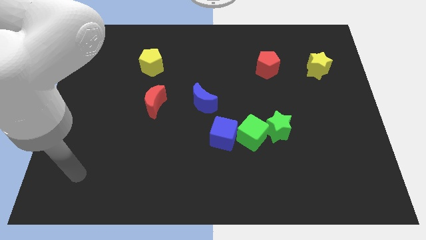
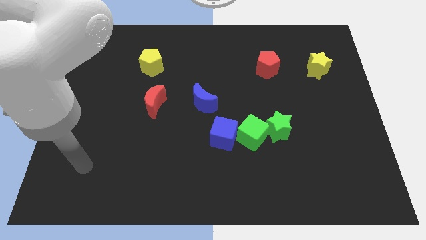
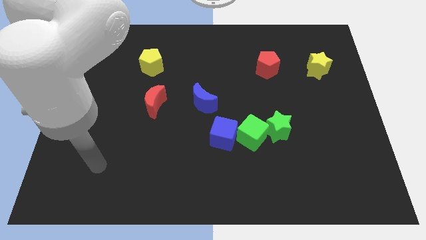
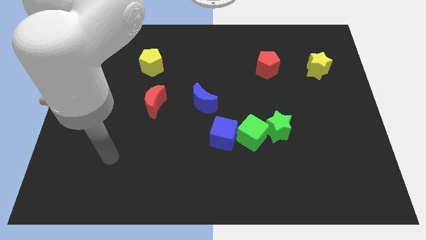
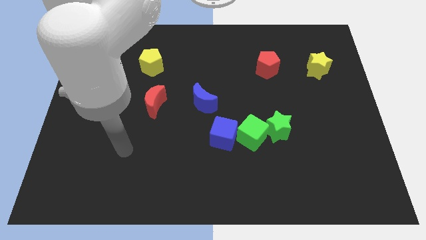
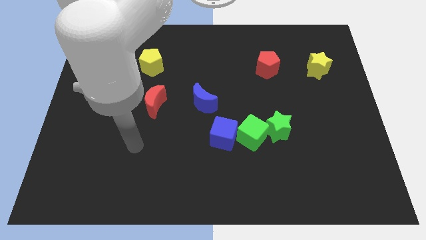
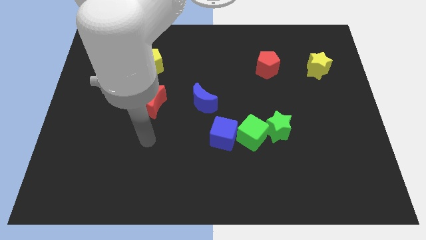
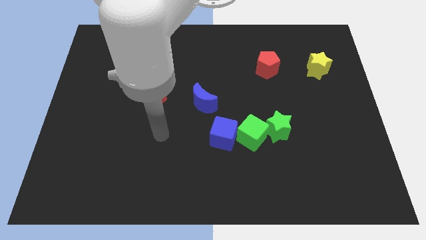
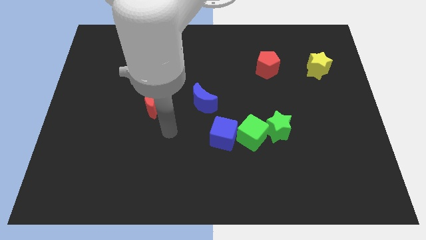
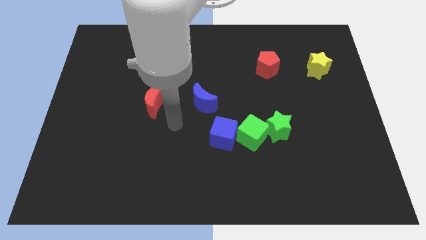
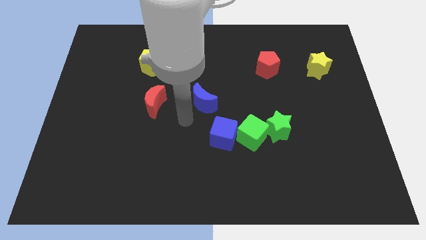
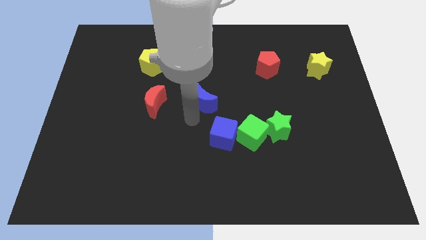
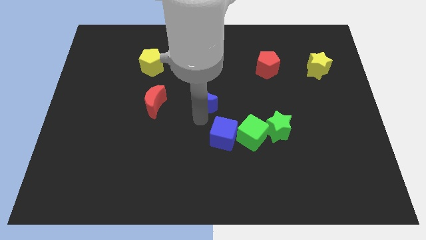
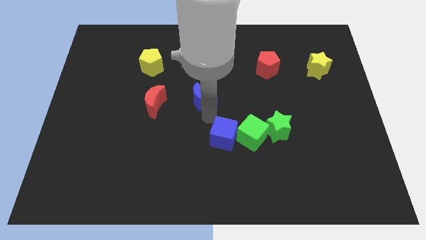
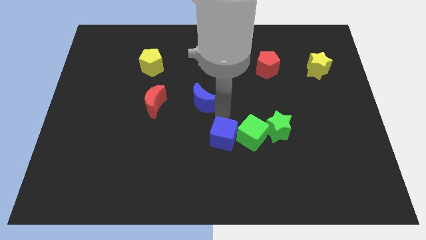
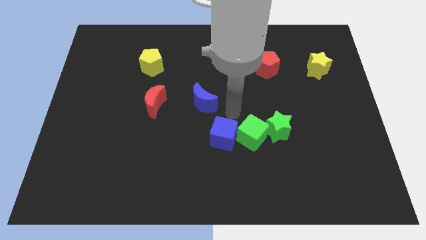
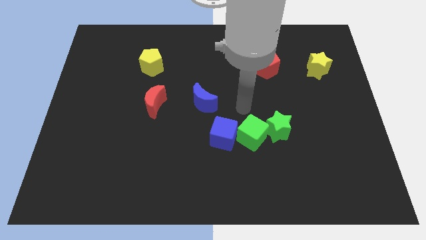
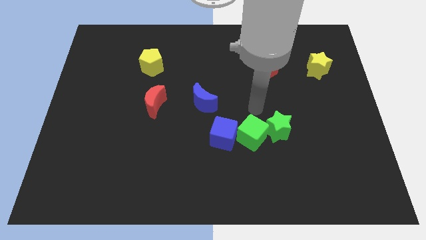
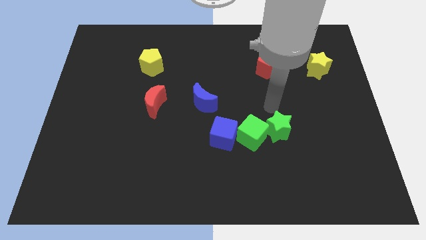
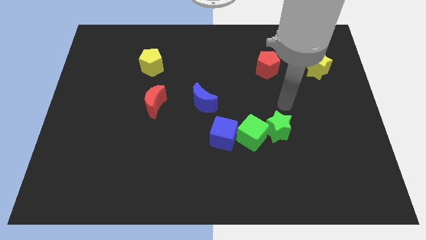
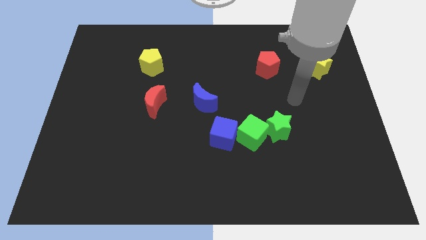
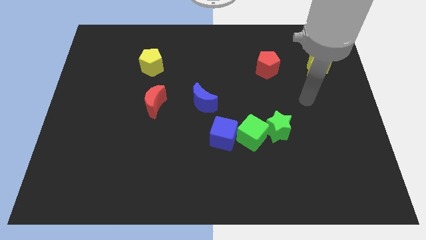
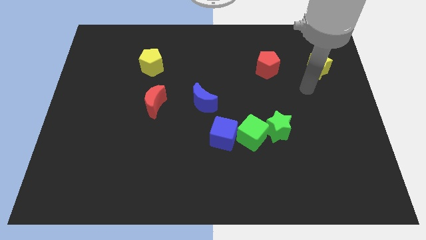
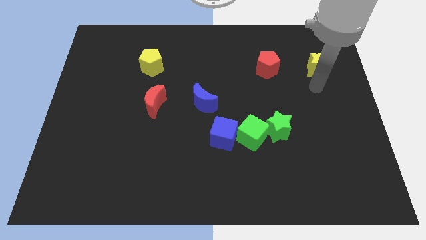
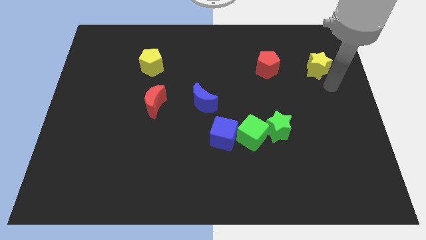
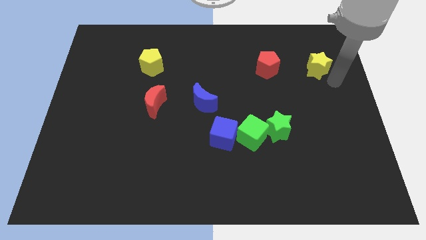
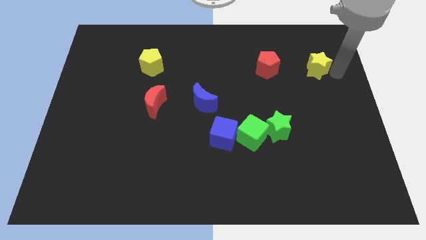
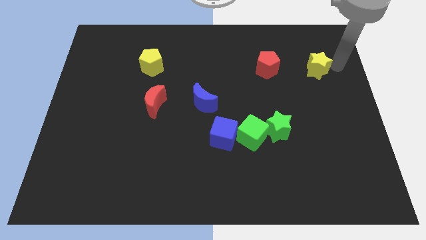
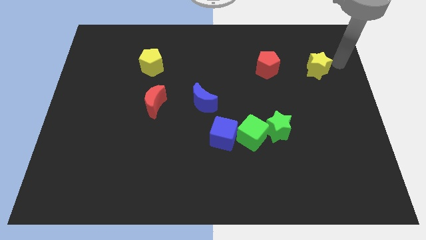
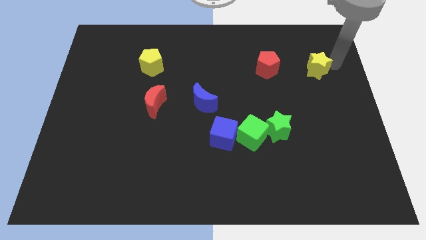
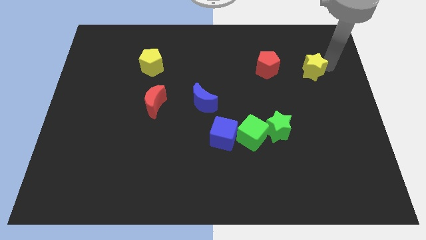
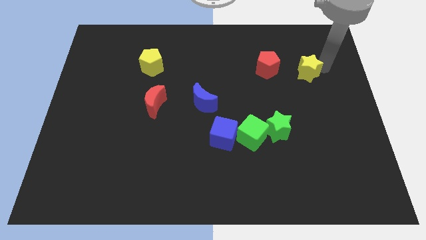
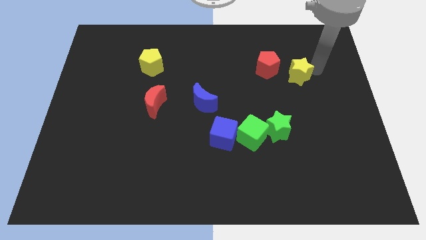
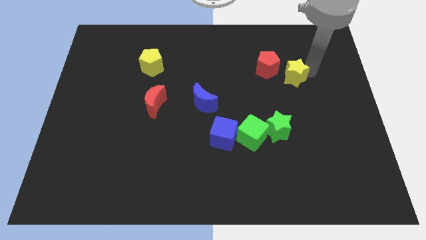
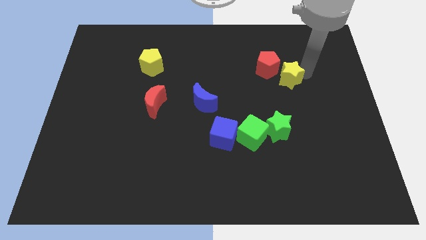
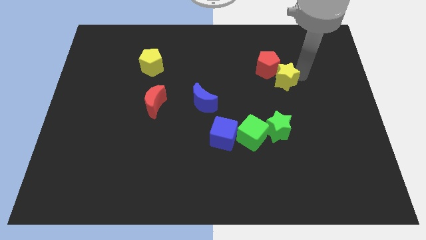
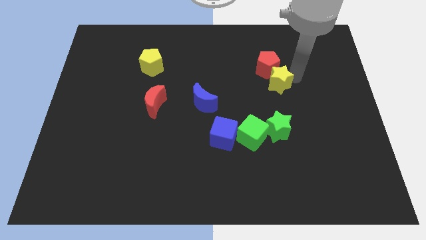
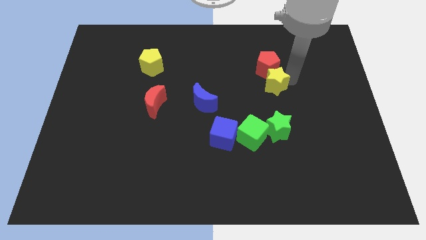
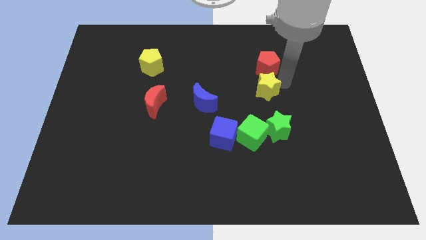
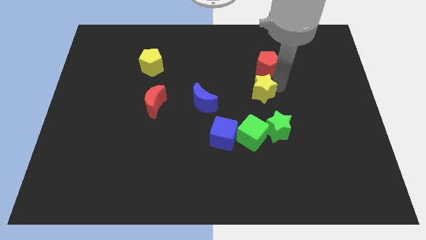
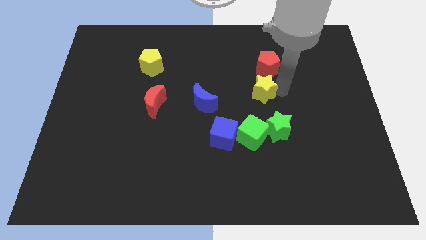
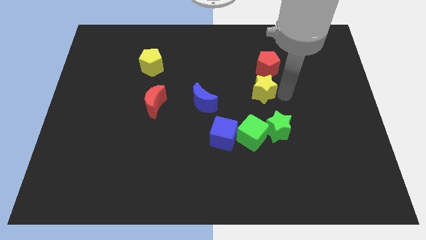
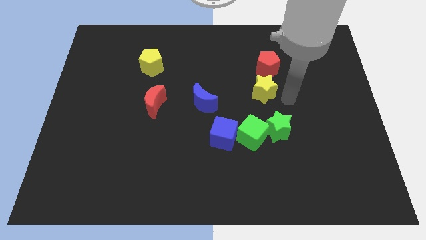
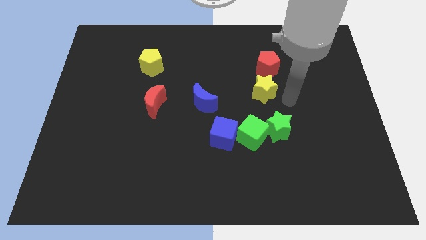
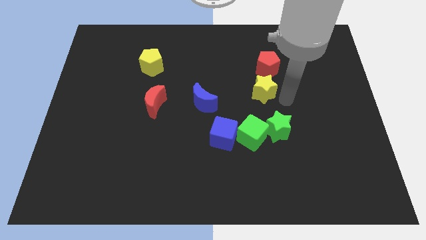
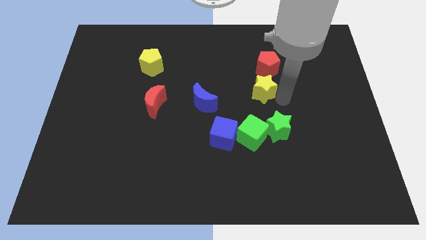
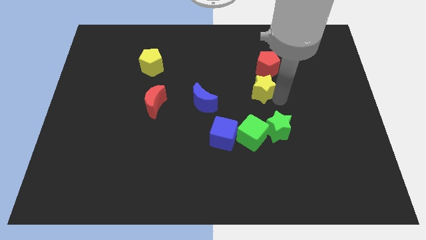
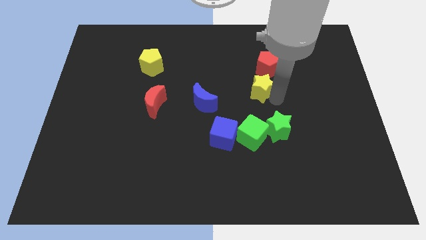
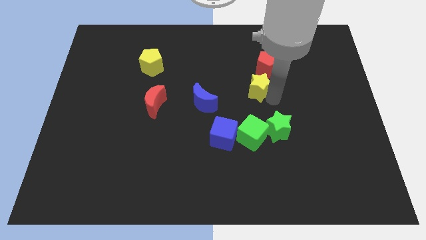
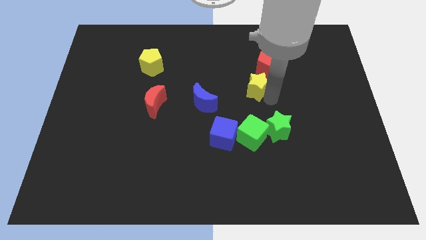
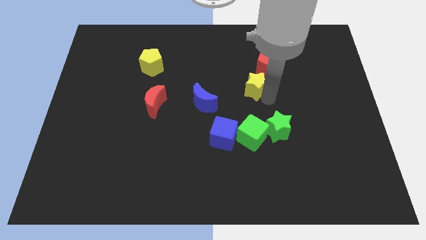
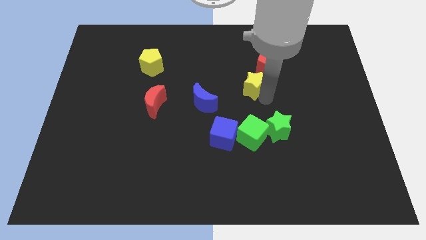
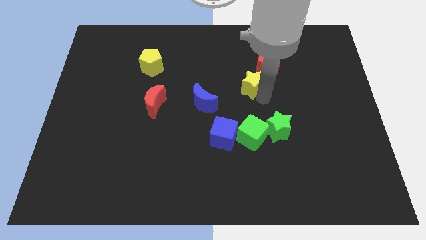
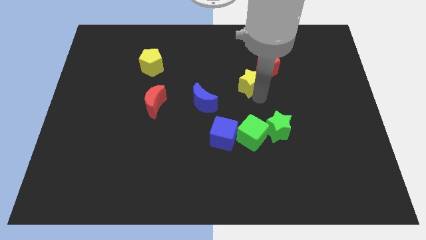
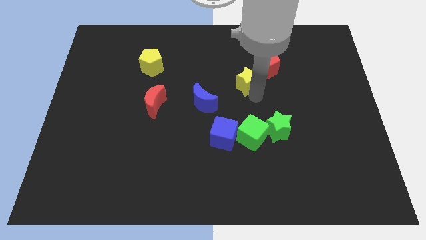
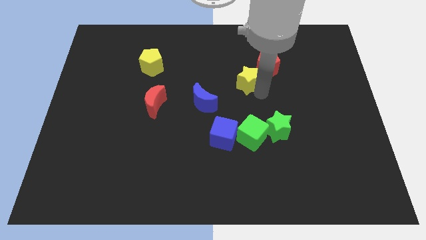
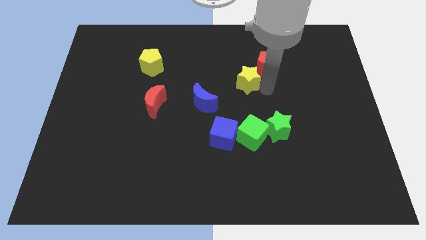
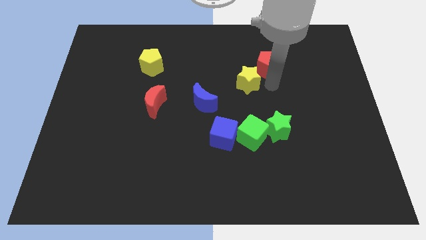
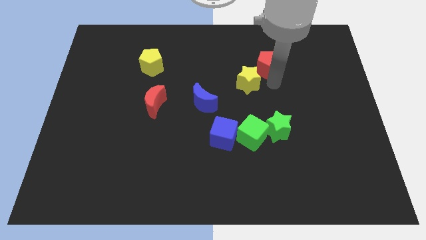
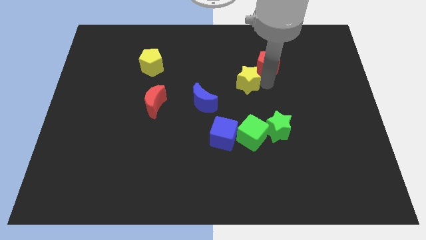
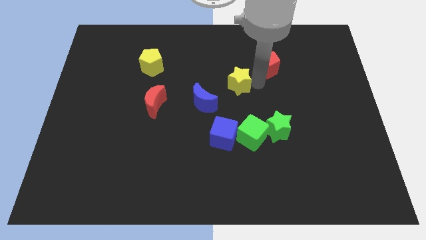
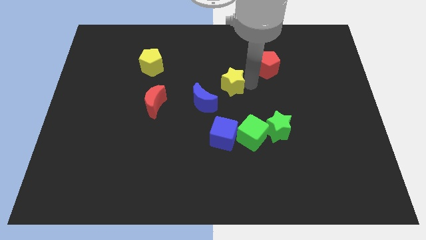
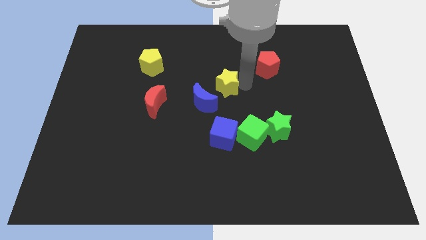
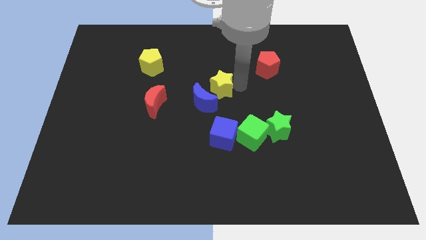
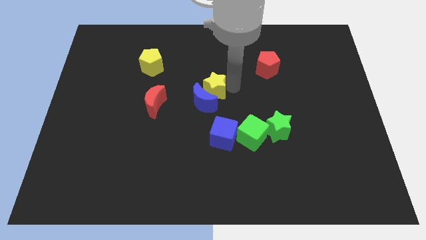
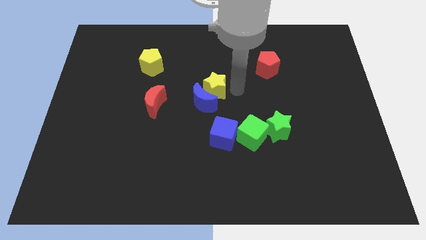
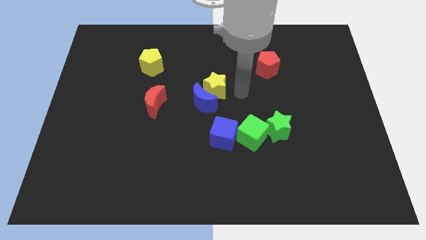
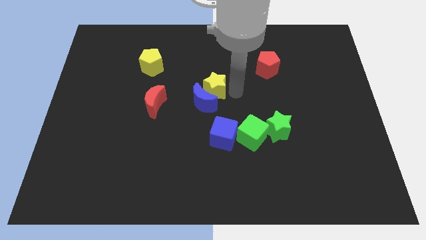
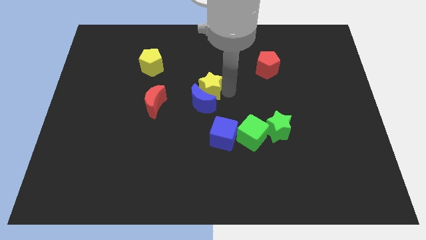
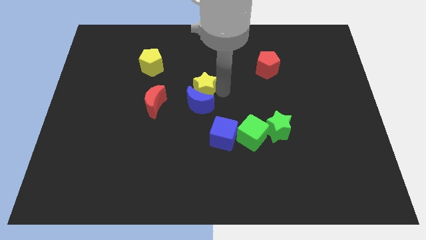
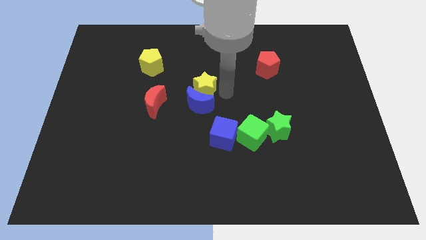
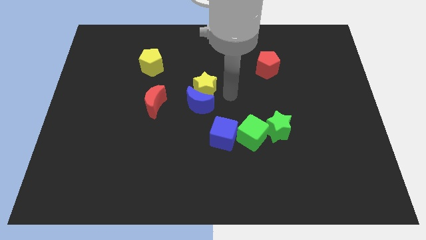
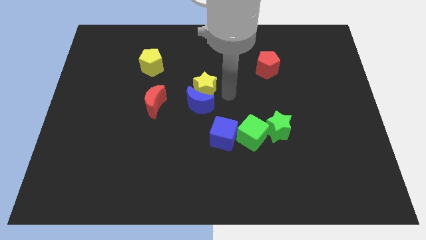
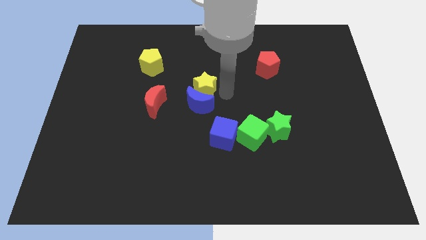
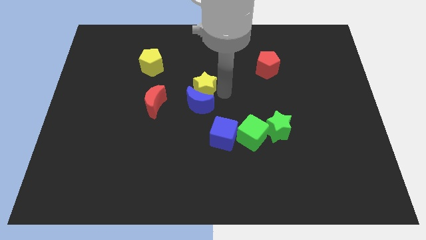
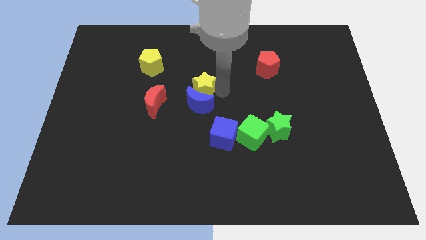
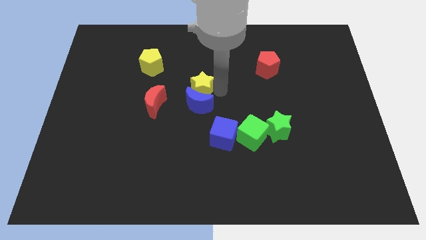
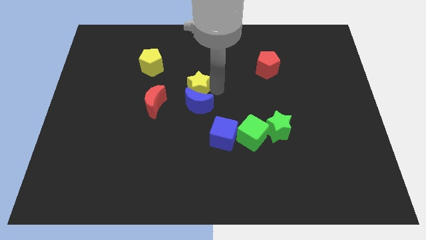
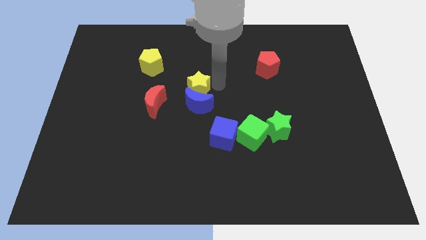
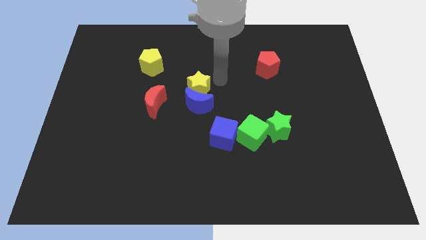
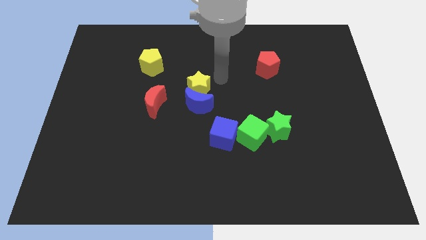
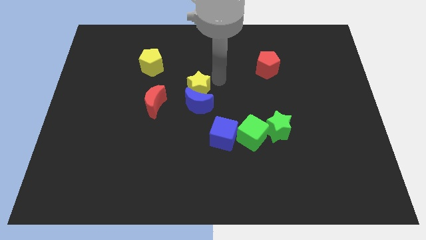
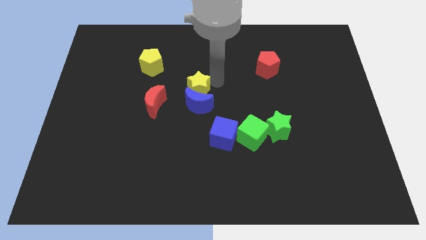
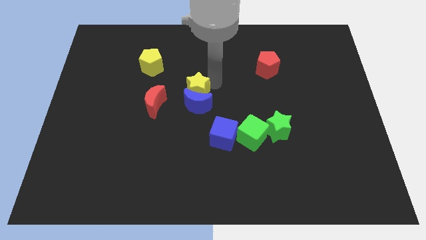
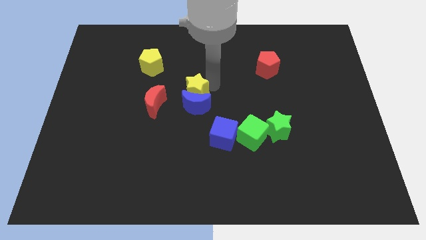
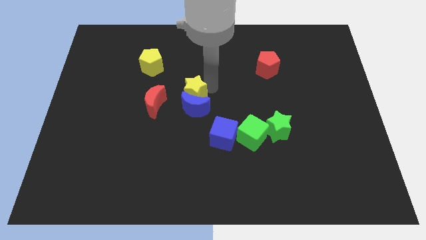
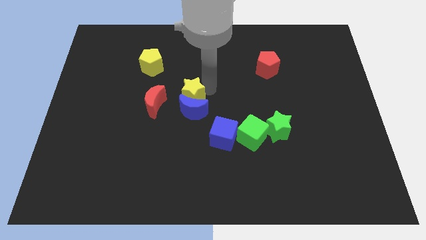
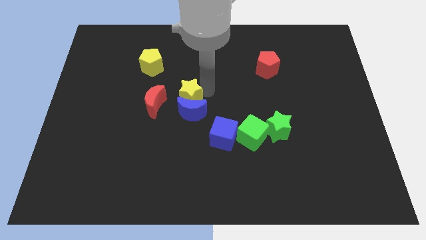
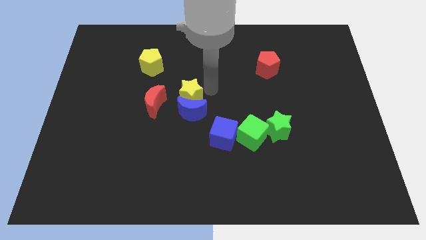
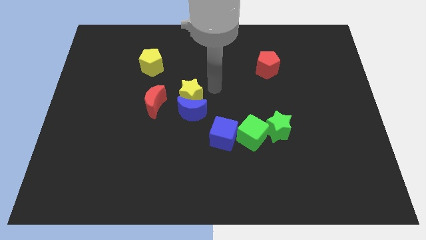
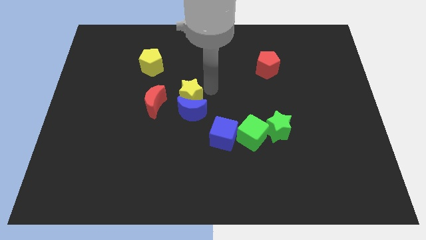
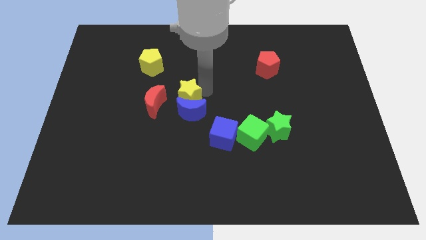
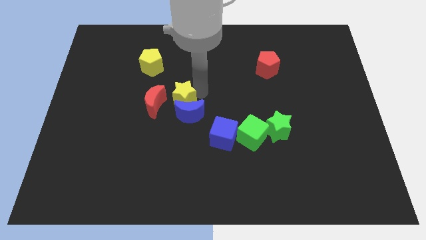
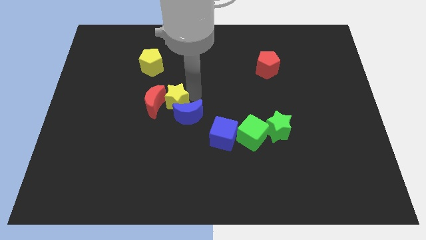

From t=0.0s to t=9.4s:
put the yellow star to the red moon
